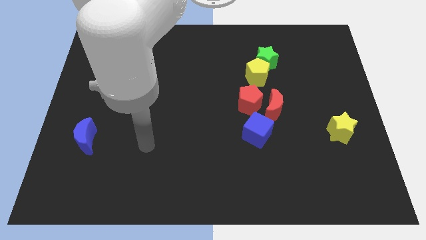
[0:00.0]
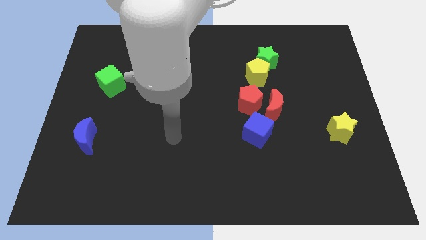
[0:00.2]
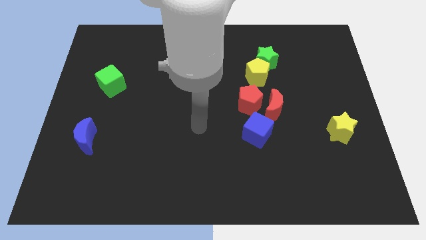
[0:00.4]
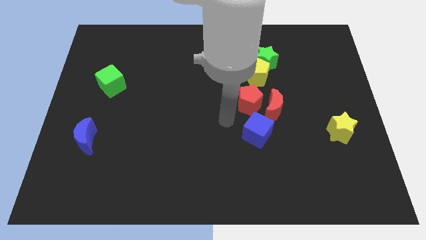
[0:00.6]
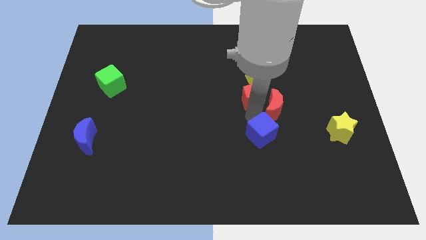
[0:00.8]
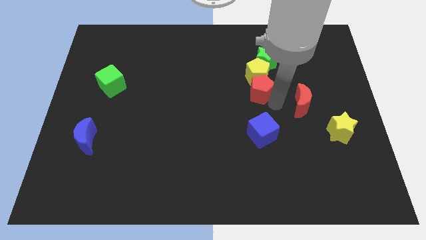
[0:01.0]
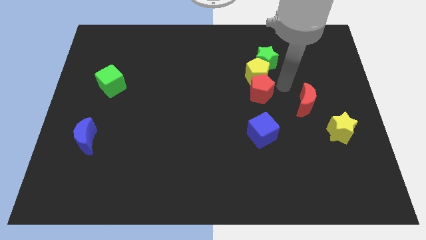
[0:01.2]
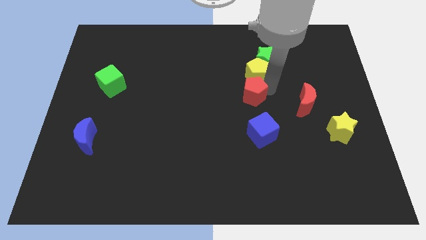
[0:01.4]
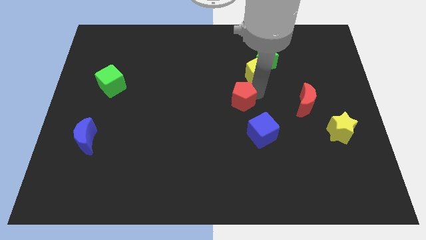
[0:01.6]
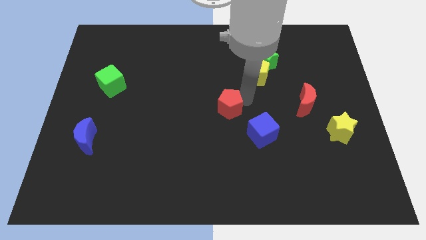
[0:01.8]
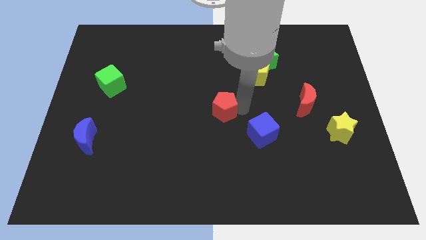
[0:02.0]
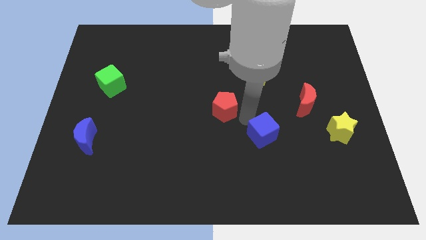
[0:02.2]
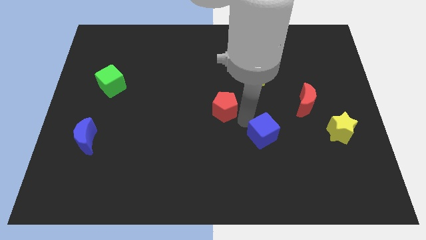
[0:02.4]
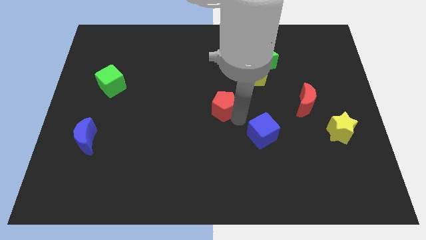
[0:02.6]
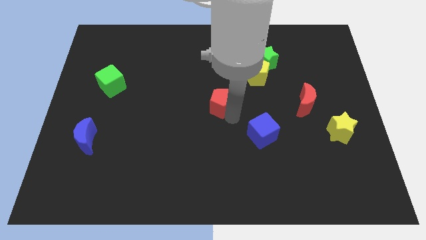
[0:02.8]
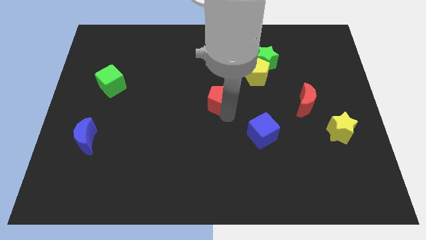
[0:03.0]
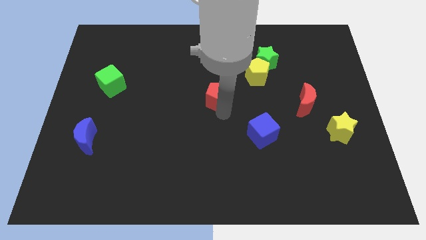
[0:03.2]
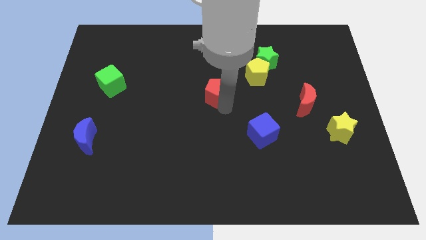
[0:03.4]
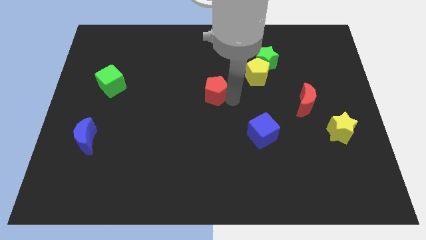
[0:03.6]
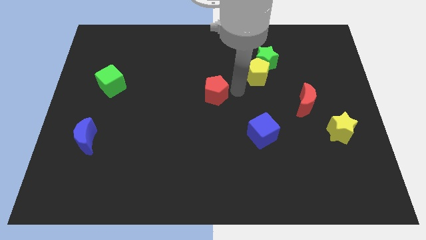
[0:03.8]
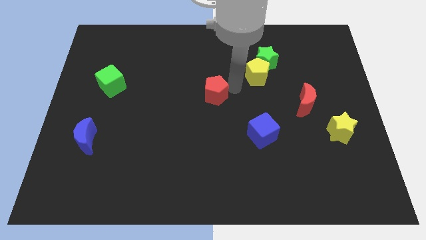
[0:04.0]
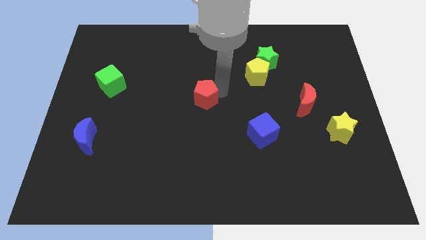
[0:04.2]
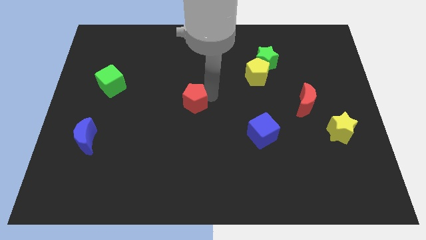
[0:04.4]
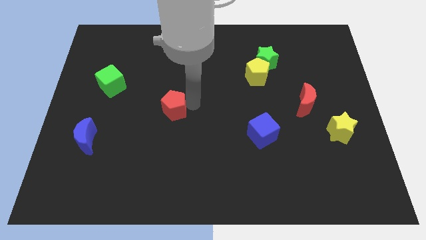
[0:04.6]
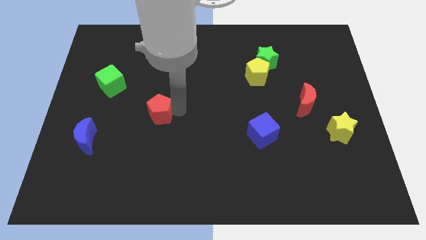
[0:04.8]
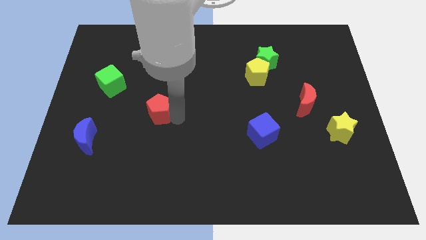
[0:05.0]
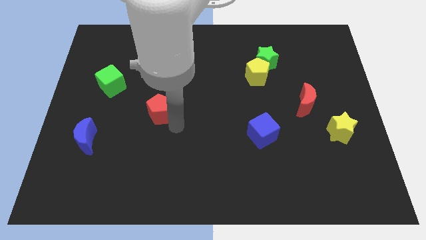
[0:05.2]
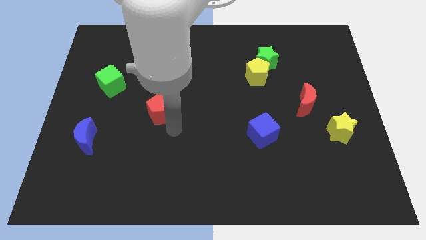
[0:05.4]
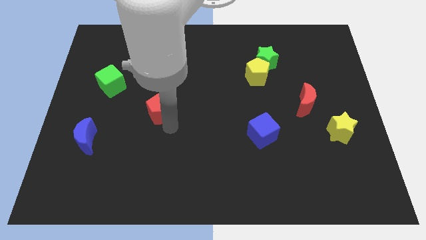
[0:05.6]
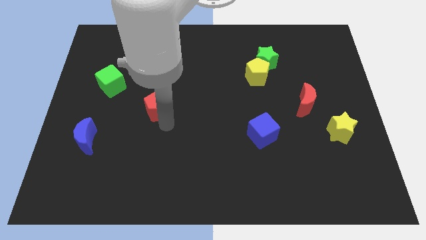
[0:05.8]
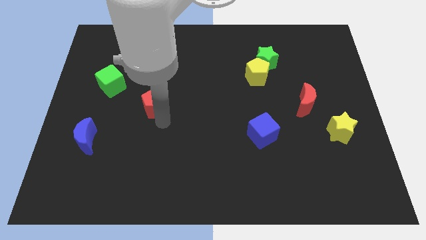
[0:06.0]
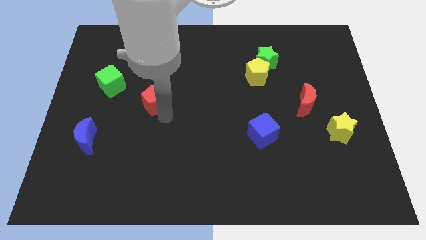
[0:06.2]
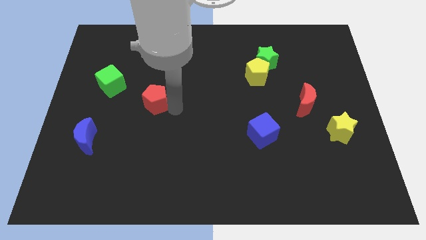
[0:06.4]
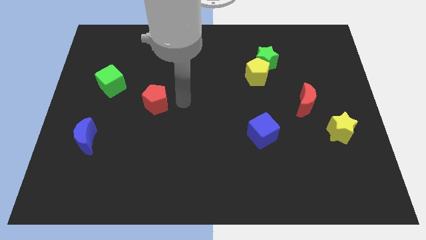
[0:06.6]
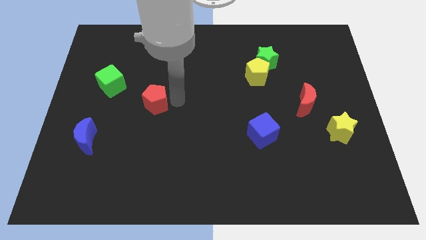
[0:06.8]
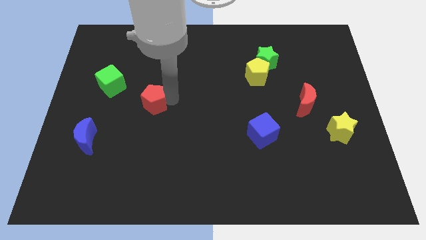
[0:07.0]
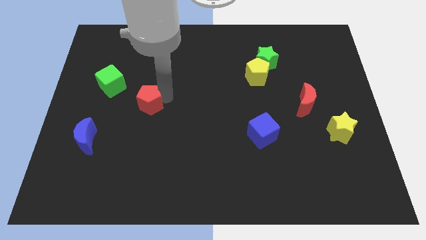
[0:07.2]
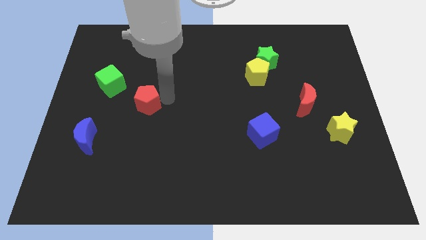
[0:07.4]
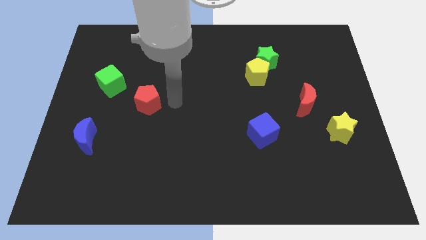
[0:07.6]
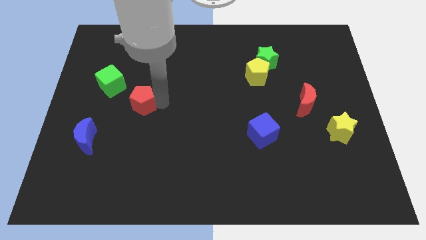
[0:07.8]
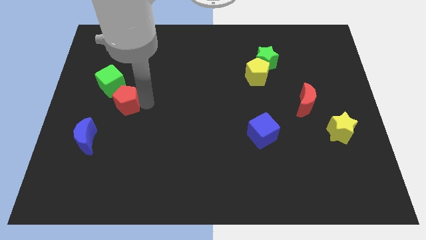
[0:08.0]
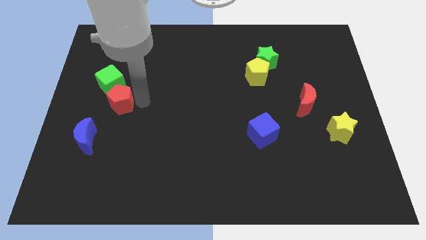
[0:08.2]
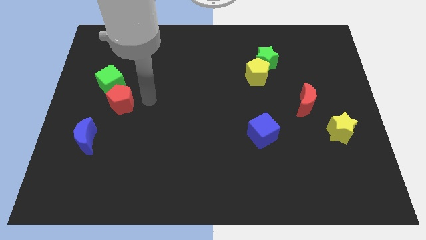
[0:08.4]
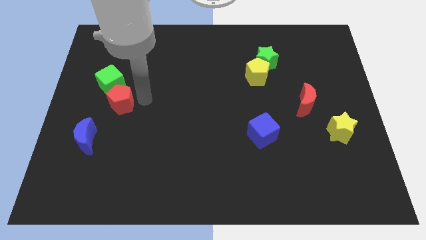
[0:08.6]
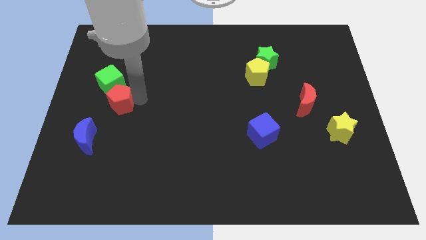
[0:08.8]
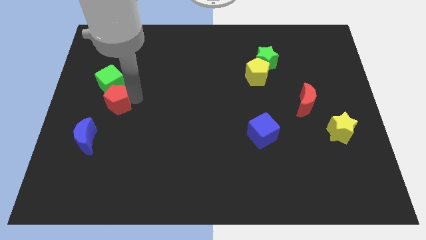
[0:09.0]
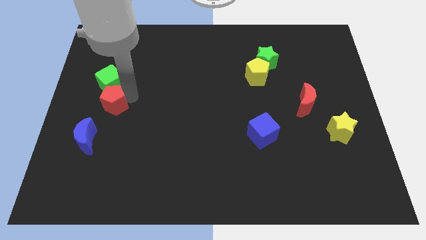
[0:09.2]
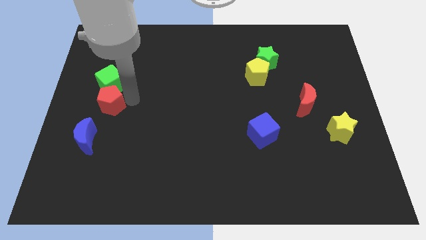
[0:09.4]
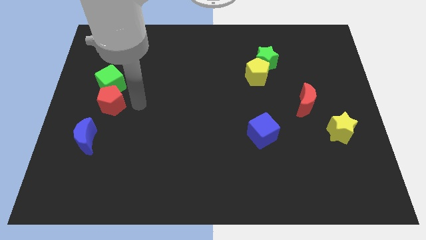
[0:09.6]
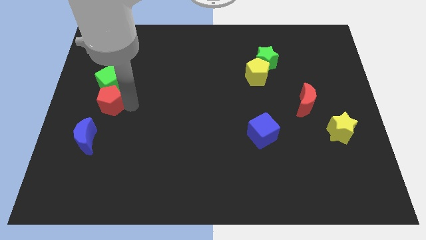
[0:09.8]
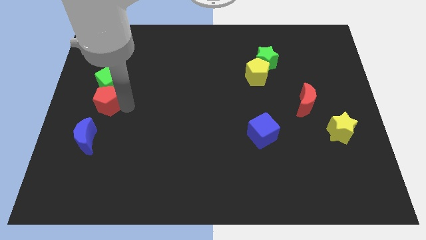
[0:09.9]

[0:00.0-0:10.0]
put the red pentagon to the left side

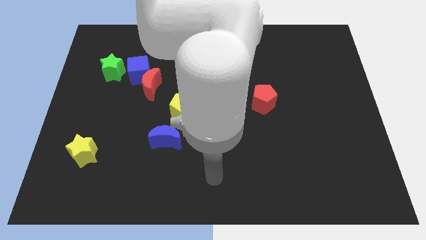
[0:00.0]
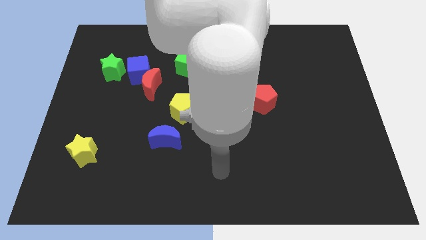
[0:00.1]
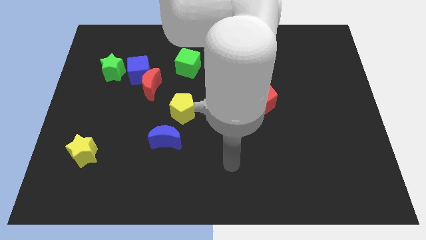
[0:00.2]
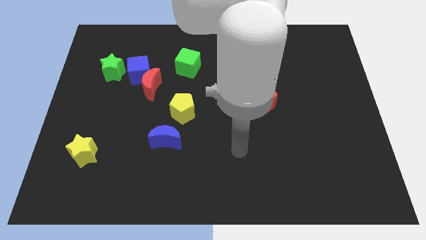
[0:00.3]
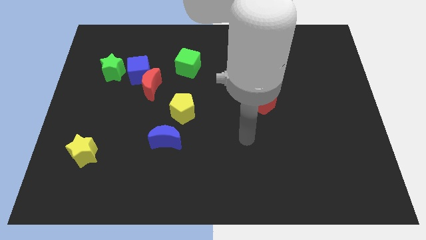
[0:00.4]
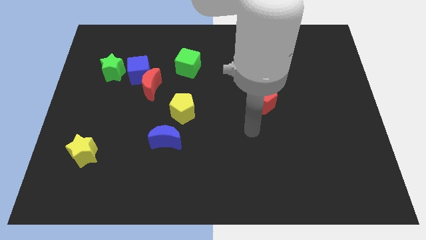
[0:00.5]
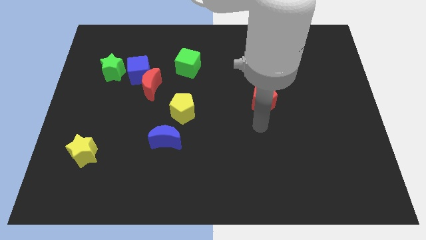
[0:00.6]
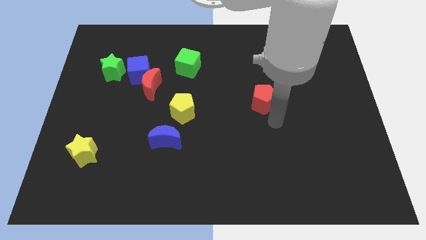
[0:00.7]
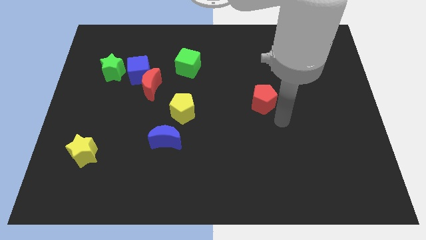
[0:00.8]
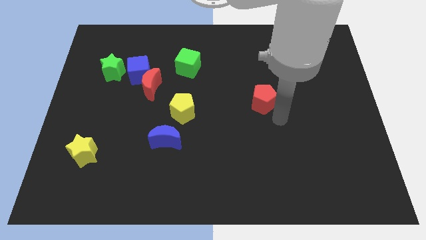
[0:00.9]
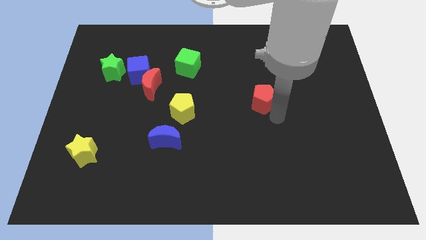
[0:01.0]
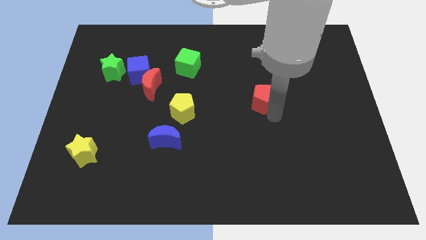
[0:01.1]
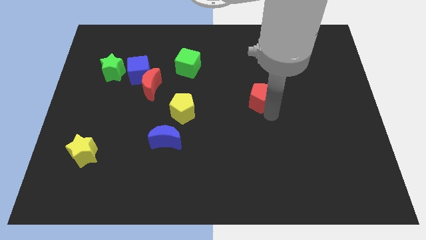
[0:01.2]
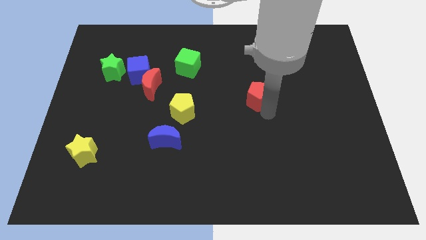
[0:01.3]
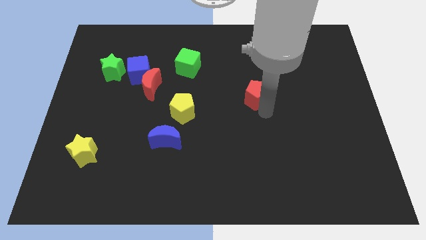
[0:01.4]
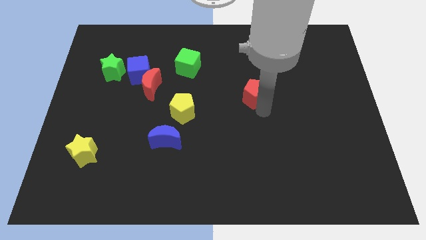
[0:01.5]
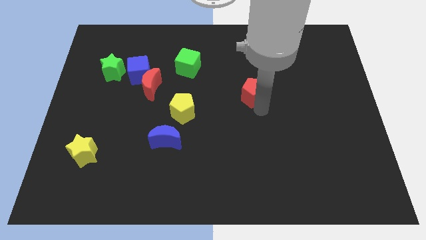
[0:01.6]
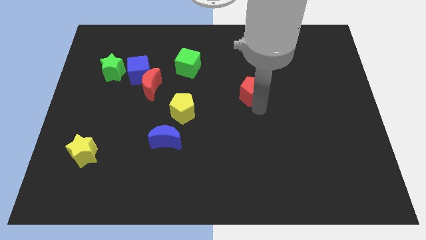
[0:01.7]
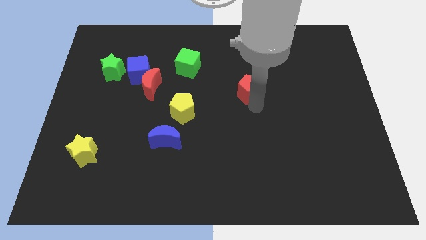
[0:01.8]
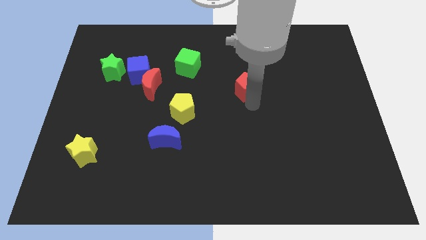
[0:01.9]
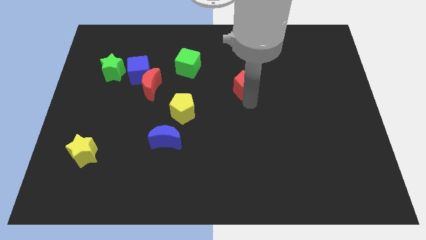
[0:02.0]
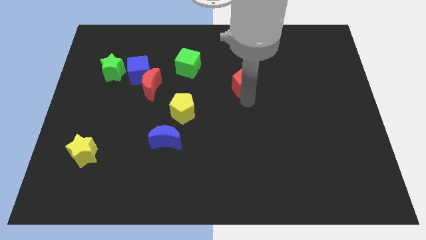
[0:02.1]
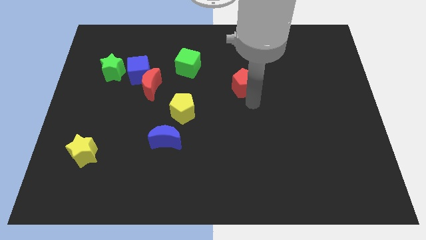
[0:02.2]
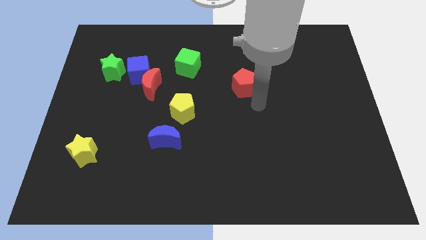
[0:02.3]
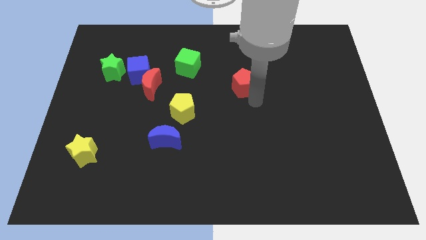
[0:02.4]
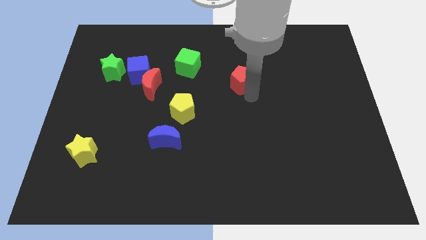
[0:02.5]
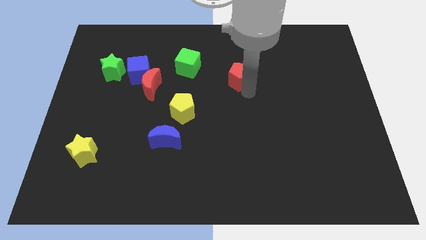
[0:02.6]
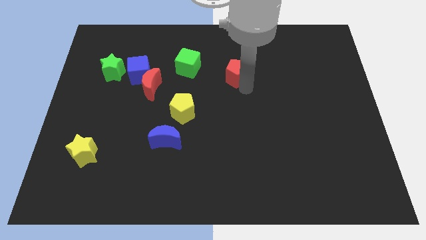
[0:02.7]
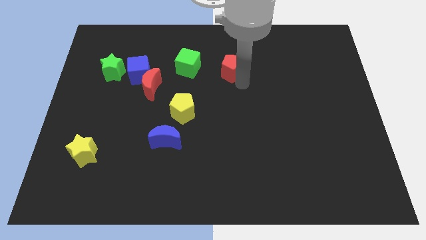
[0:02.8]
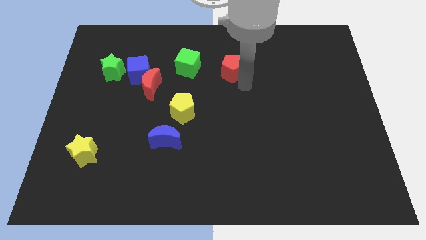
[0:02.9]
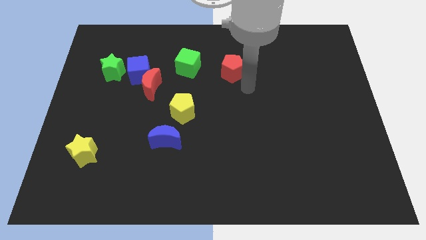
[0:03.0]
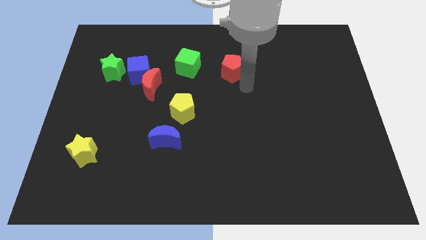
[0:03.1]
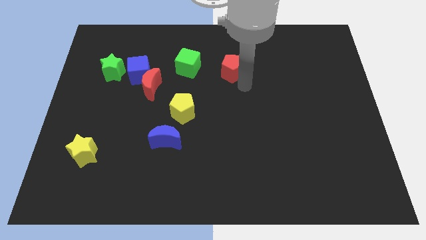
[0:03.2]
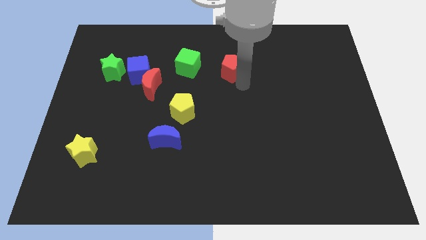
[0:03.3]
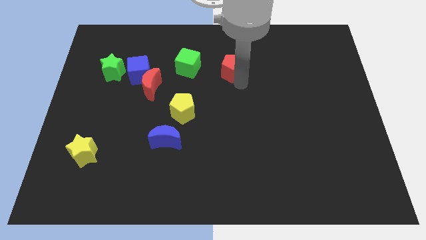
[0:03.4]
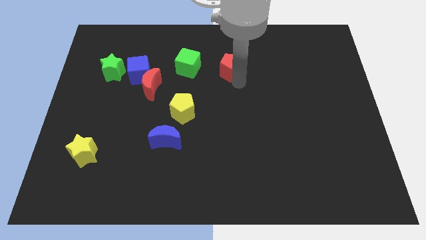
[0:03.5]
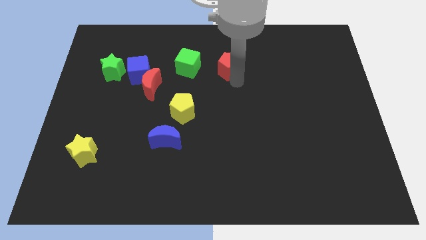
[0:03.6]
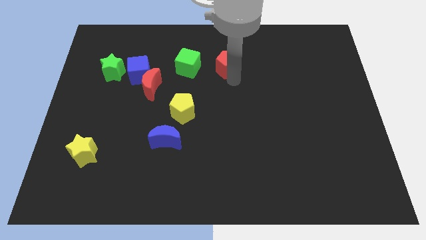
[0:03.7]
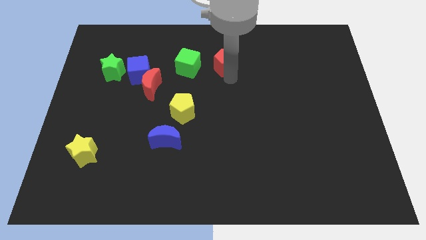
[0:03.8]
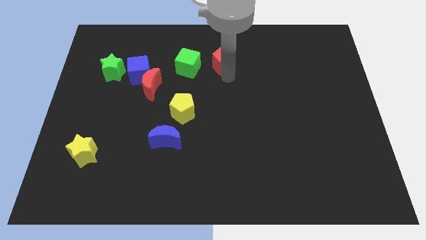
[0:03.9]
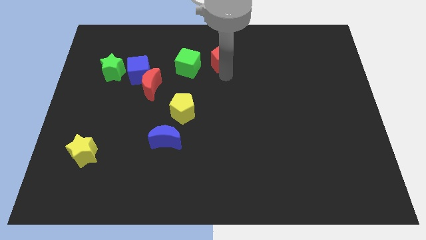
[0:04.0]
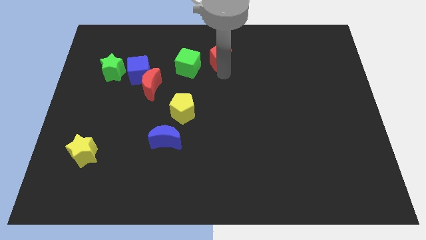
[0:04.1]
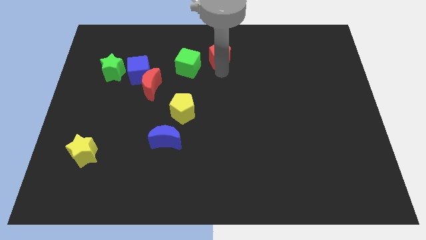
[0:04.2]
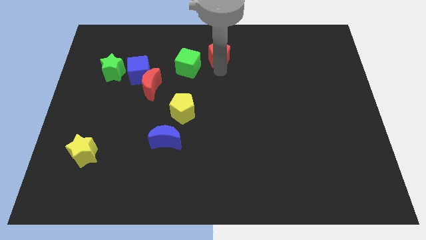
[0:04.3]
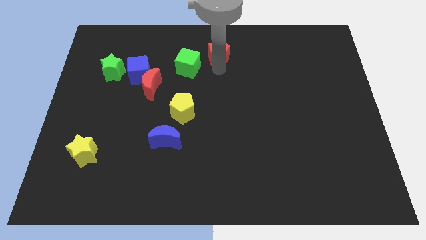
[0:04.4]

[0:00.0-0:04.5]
push the red pentagon to the top side
